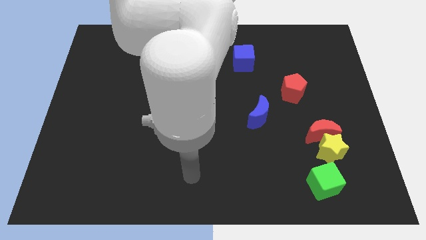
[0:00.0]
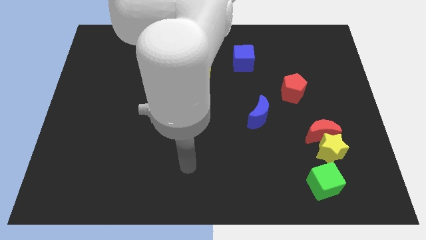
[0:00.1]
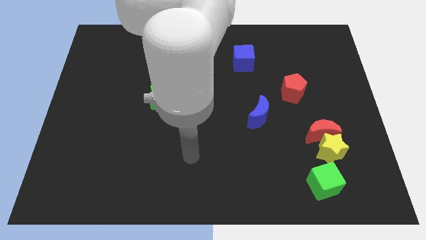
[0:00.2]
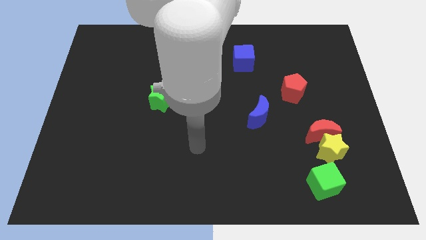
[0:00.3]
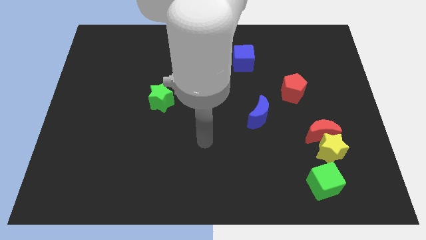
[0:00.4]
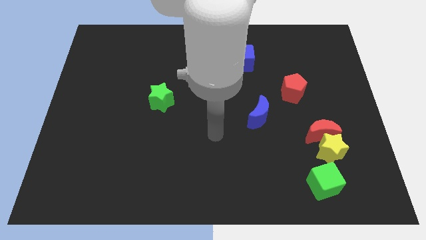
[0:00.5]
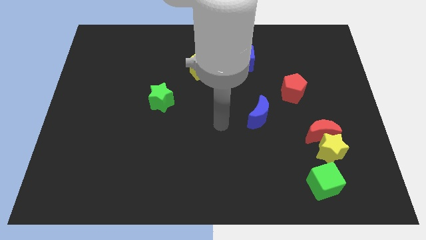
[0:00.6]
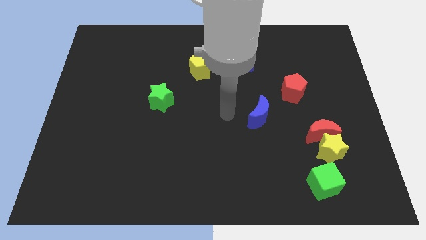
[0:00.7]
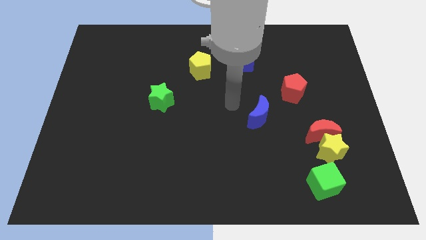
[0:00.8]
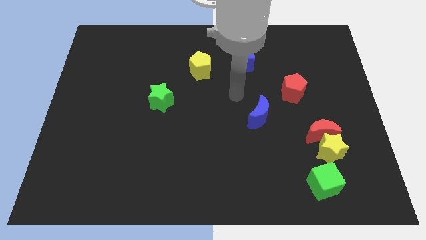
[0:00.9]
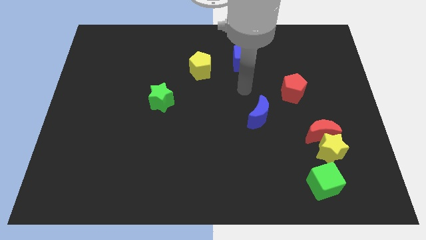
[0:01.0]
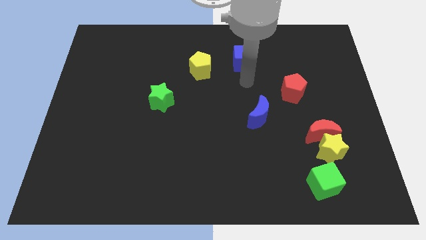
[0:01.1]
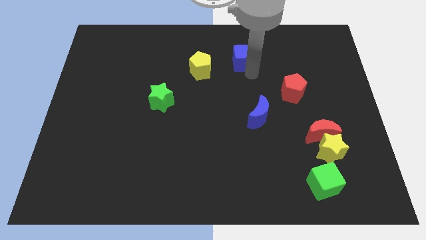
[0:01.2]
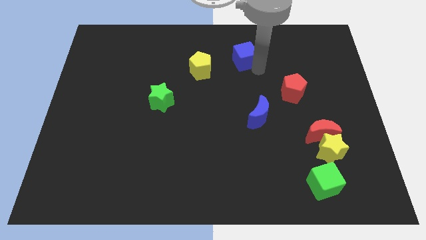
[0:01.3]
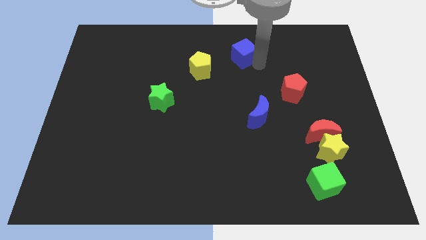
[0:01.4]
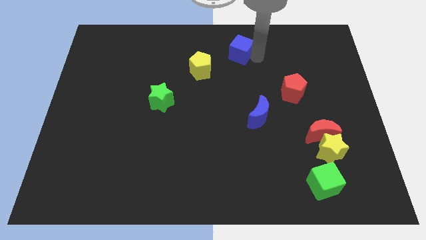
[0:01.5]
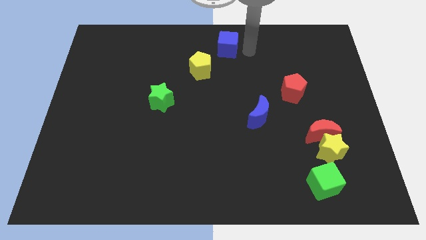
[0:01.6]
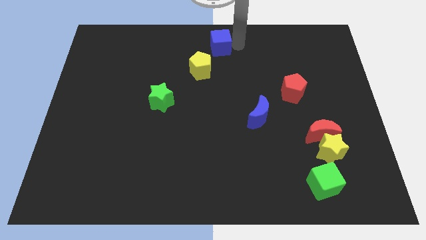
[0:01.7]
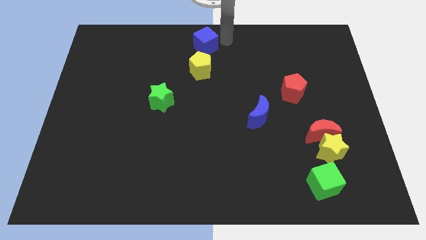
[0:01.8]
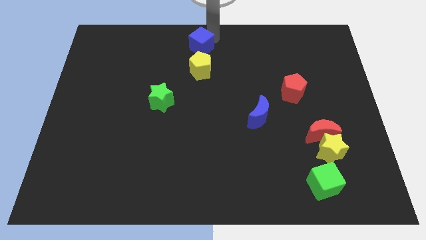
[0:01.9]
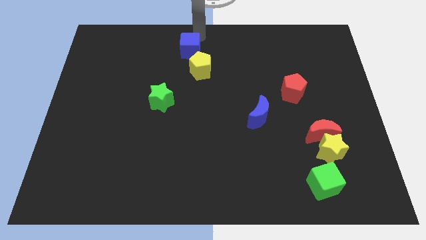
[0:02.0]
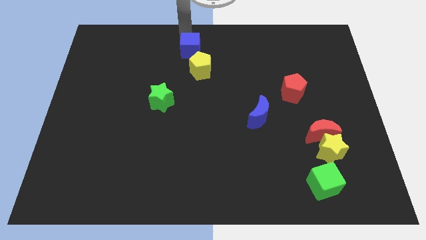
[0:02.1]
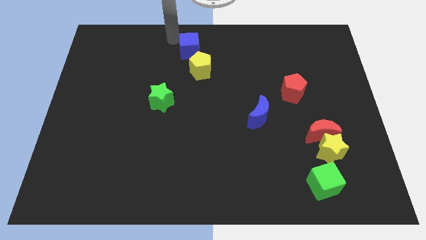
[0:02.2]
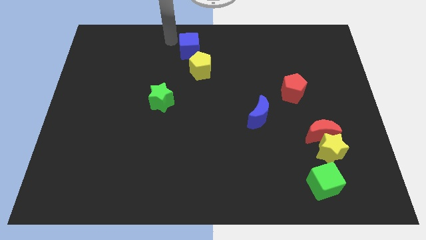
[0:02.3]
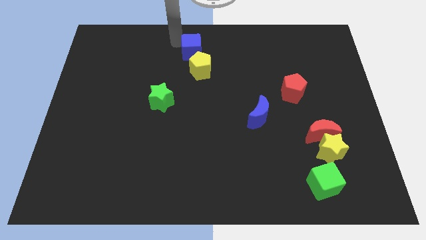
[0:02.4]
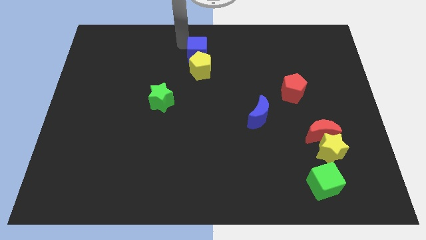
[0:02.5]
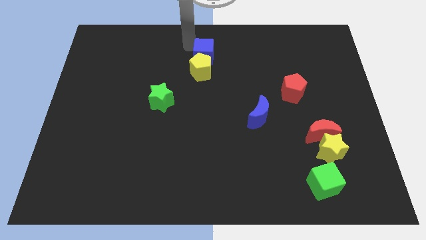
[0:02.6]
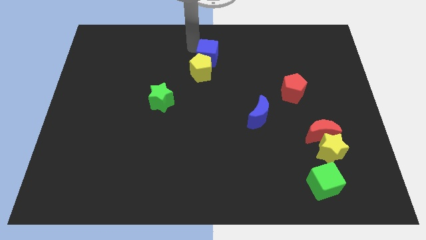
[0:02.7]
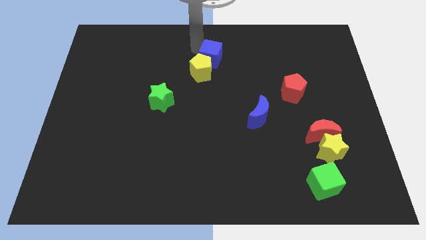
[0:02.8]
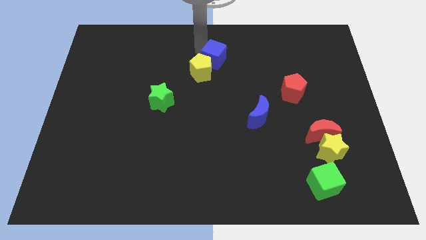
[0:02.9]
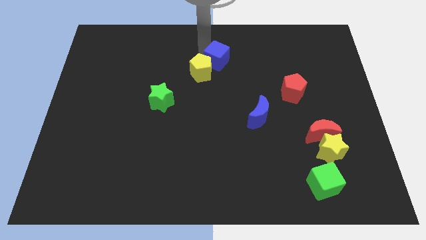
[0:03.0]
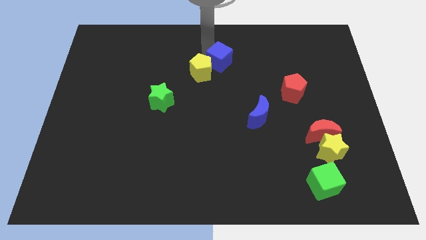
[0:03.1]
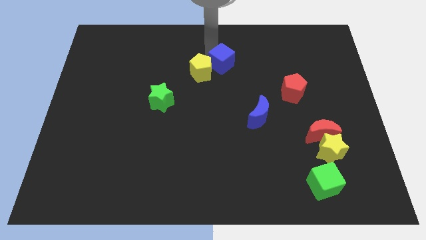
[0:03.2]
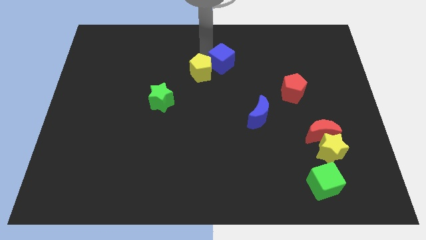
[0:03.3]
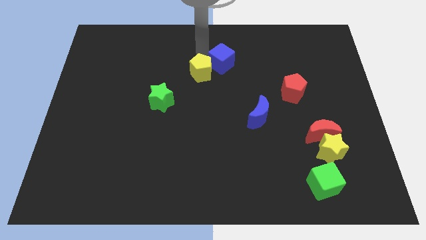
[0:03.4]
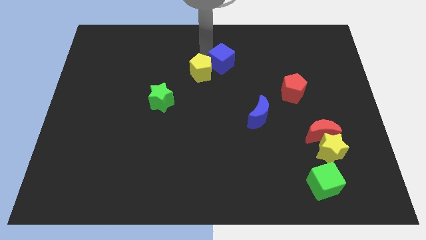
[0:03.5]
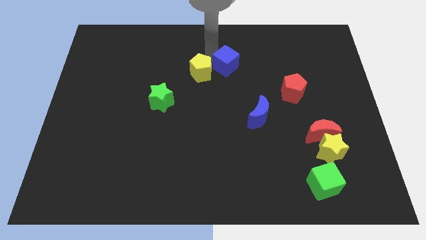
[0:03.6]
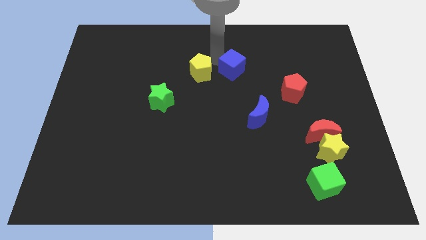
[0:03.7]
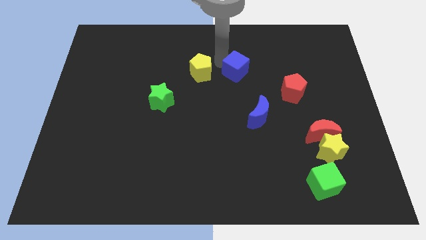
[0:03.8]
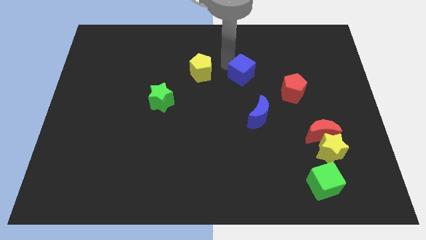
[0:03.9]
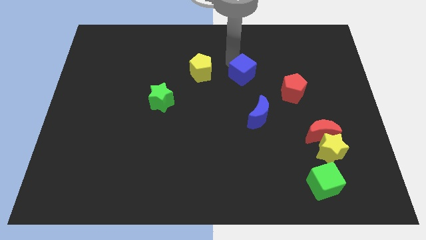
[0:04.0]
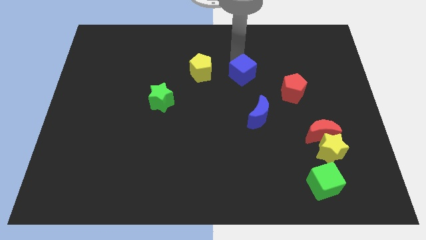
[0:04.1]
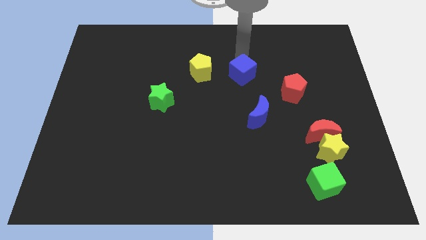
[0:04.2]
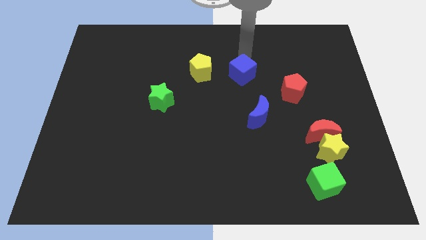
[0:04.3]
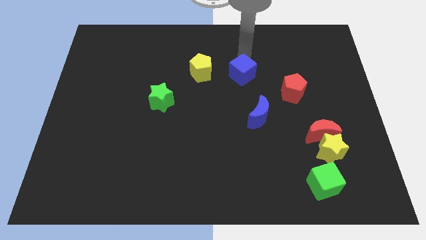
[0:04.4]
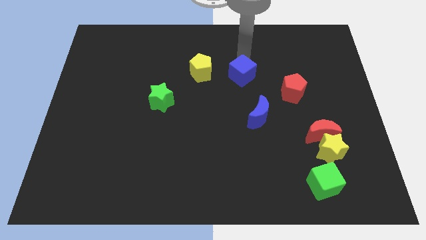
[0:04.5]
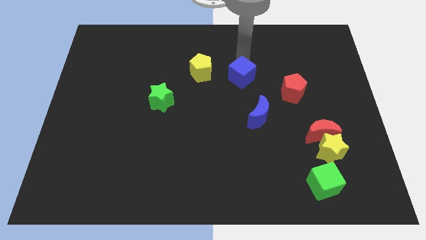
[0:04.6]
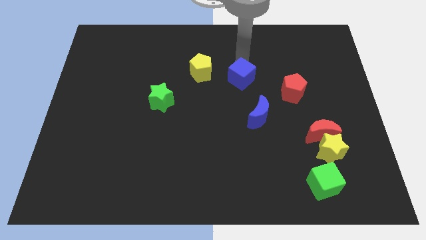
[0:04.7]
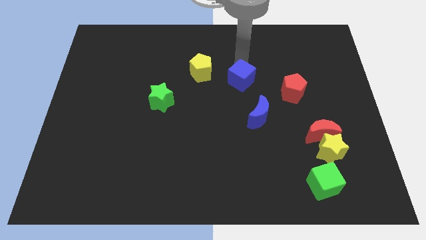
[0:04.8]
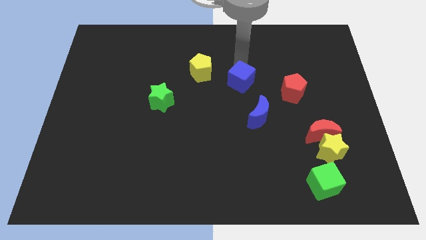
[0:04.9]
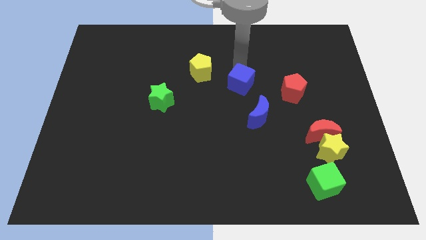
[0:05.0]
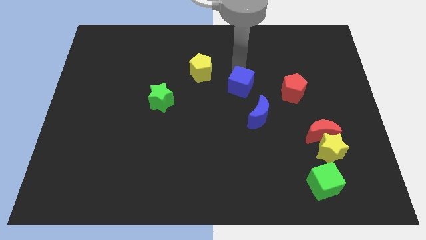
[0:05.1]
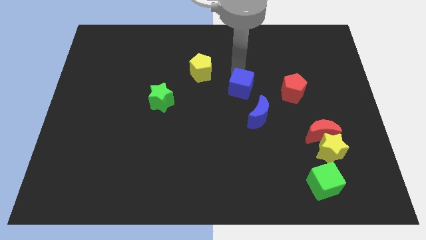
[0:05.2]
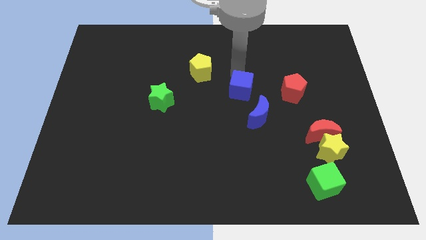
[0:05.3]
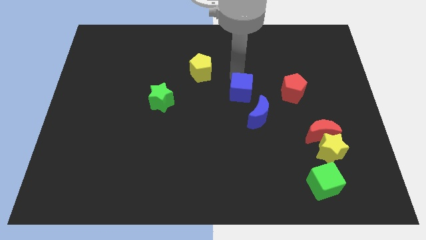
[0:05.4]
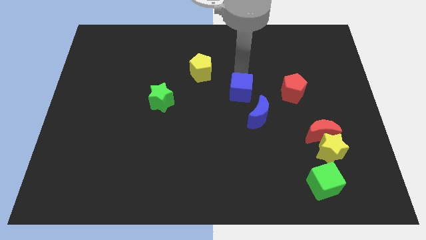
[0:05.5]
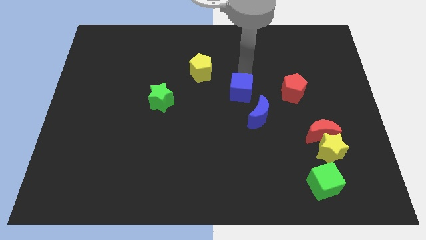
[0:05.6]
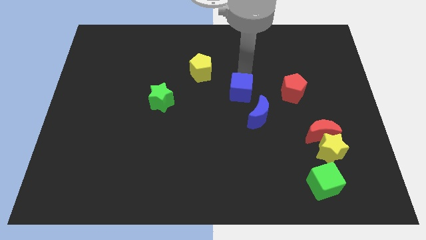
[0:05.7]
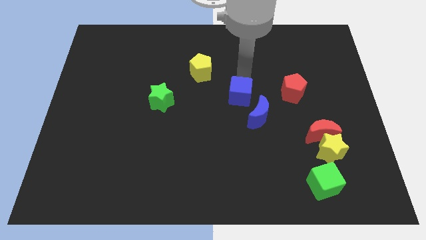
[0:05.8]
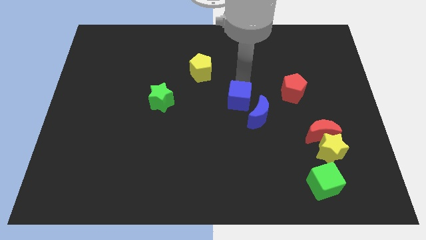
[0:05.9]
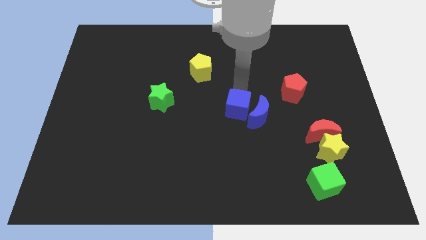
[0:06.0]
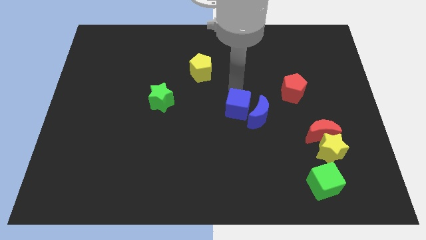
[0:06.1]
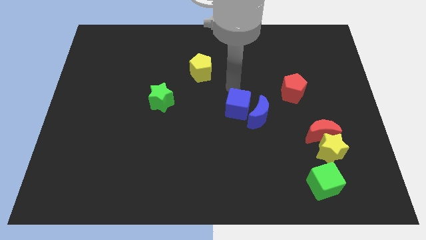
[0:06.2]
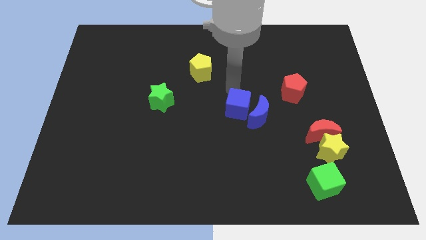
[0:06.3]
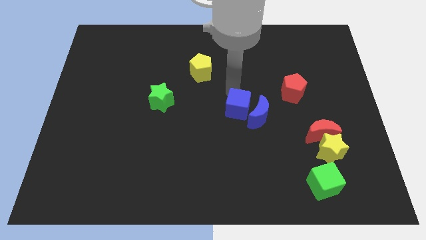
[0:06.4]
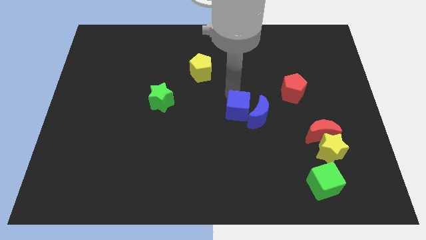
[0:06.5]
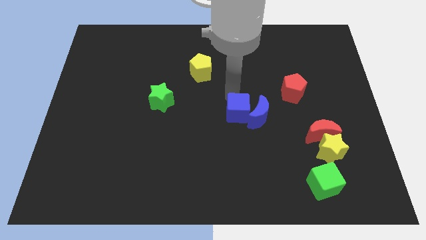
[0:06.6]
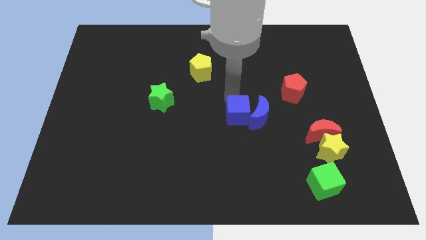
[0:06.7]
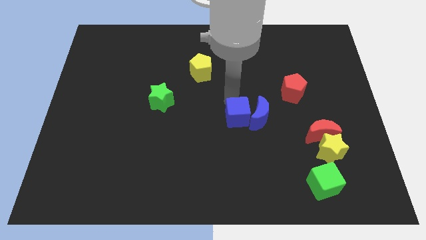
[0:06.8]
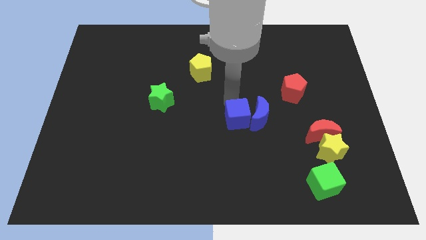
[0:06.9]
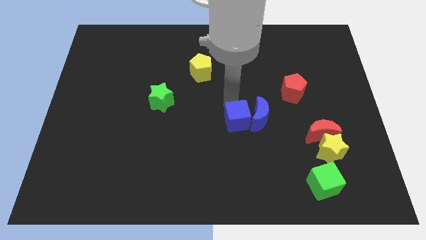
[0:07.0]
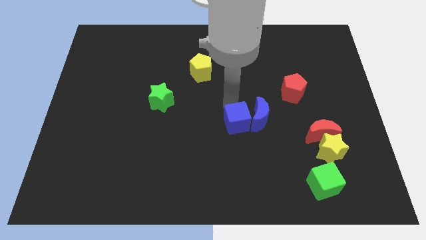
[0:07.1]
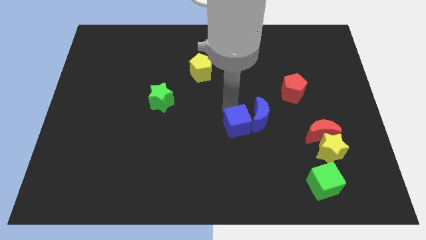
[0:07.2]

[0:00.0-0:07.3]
move the blue cube down

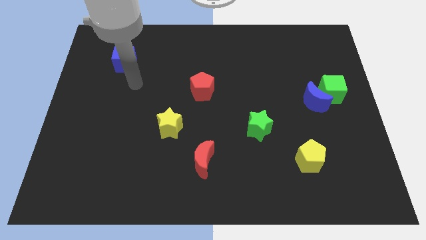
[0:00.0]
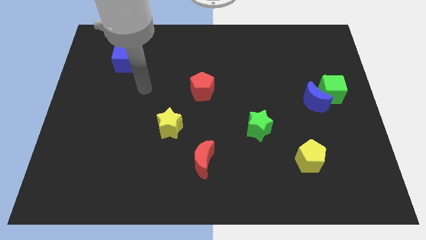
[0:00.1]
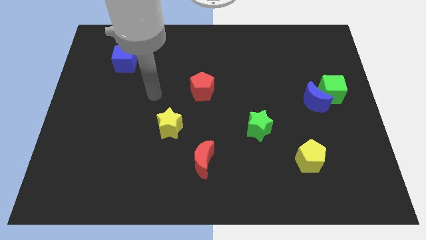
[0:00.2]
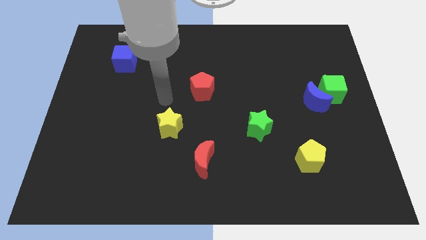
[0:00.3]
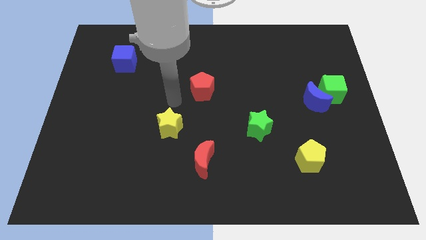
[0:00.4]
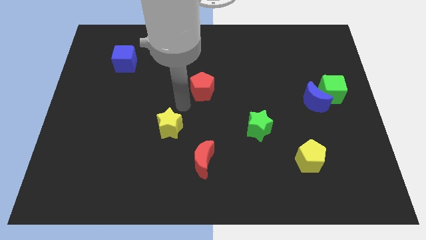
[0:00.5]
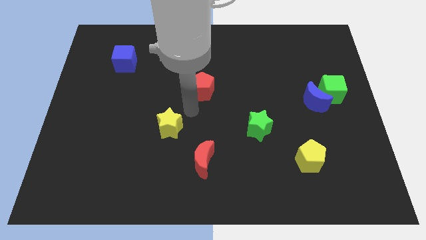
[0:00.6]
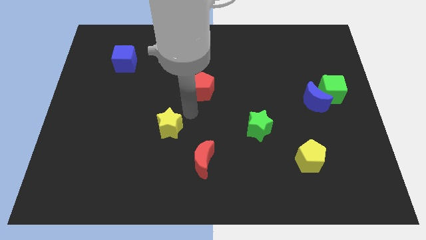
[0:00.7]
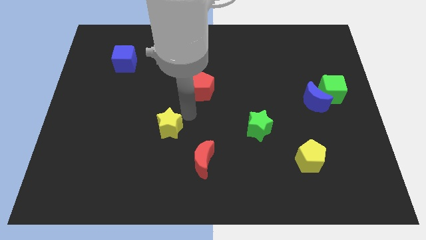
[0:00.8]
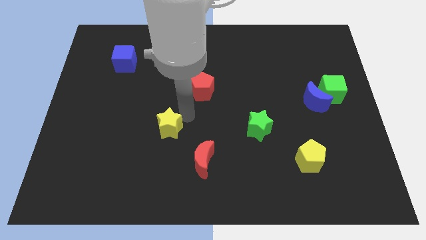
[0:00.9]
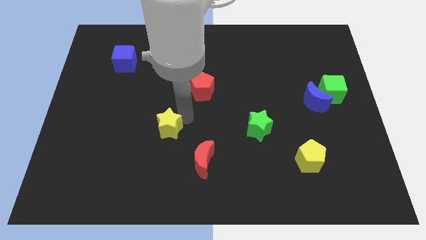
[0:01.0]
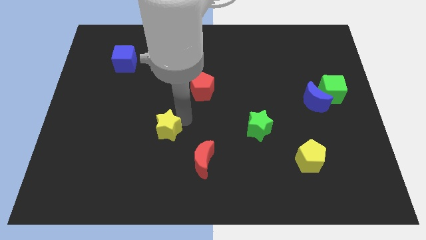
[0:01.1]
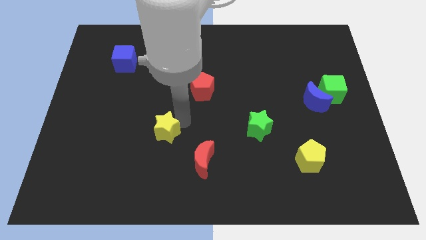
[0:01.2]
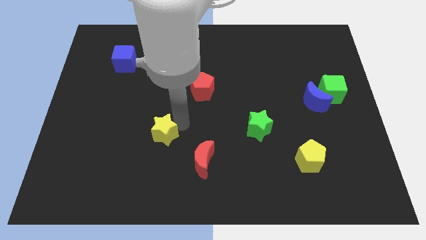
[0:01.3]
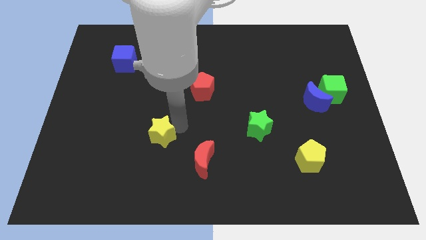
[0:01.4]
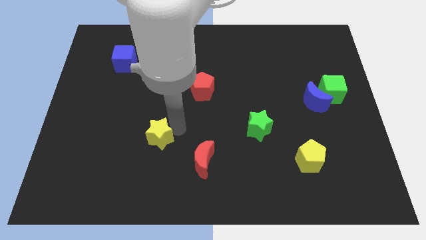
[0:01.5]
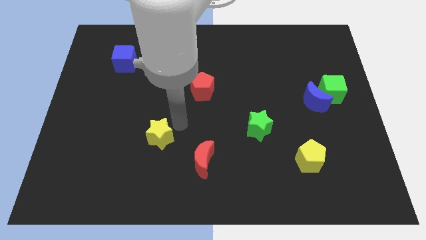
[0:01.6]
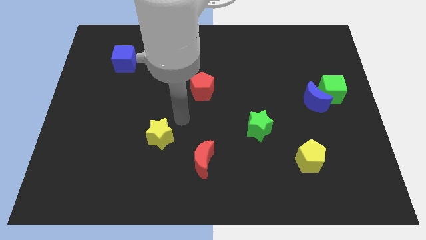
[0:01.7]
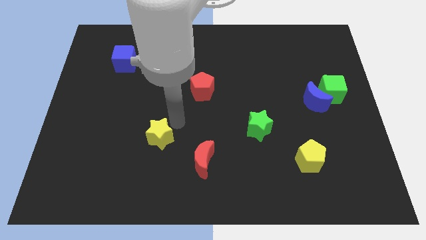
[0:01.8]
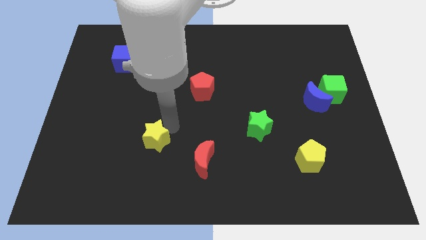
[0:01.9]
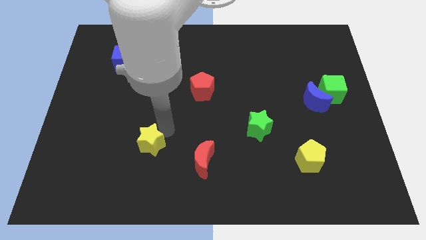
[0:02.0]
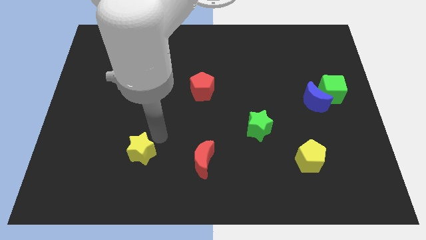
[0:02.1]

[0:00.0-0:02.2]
slightly slide the yellow star downwards and then left
